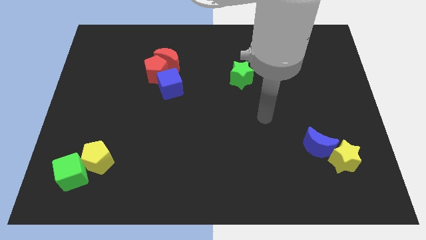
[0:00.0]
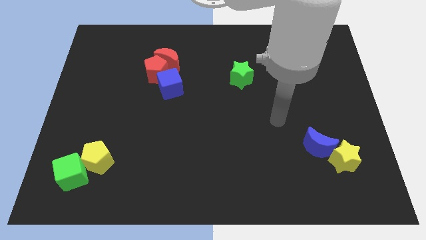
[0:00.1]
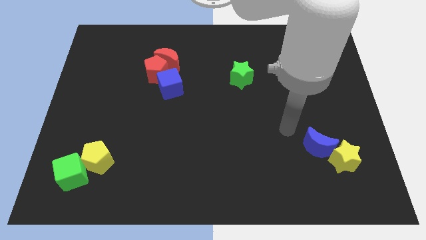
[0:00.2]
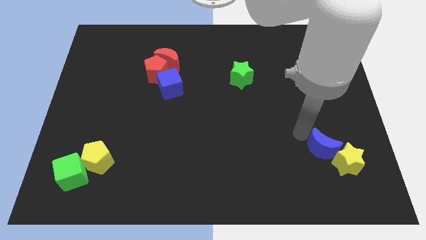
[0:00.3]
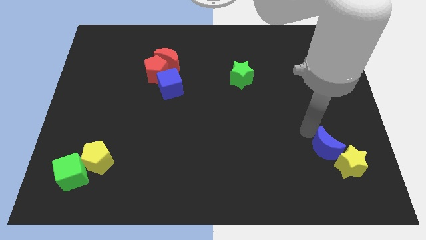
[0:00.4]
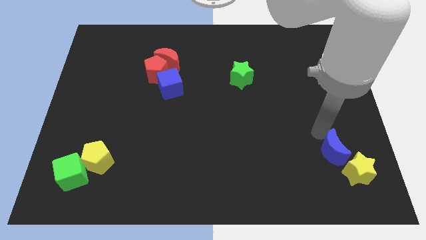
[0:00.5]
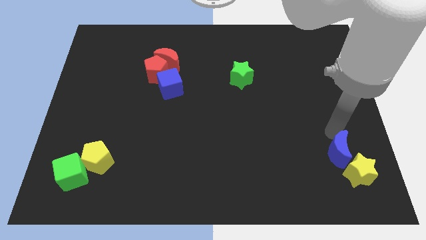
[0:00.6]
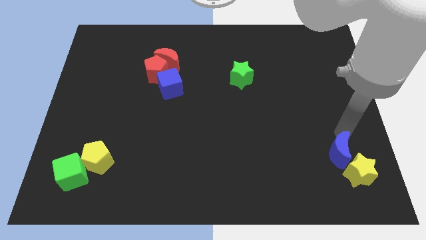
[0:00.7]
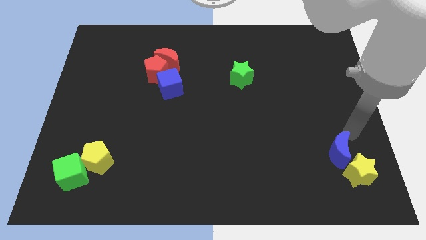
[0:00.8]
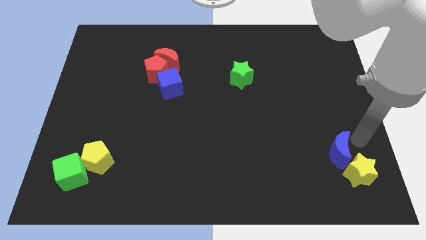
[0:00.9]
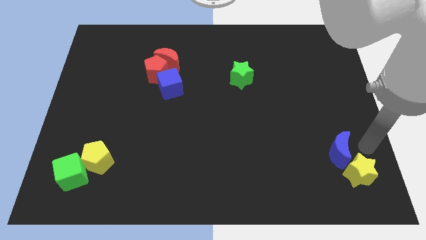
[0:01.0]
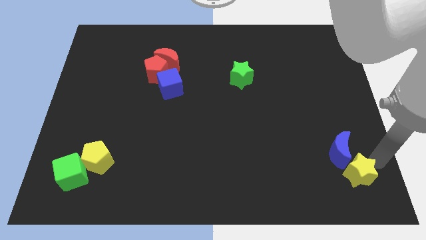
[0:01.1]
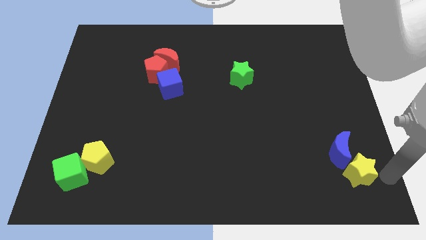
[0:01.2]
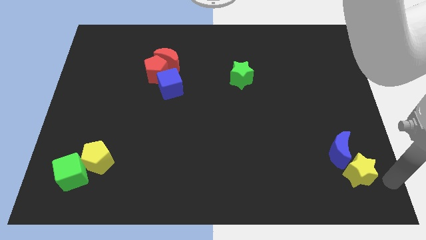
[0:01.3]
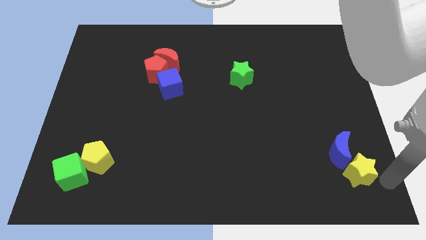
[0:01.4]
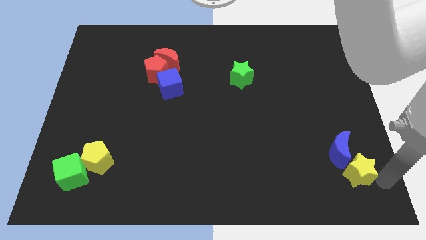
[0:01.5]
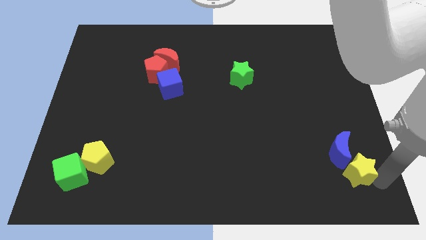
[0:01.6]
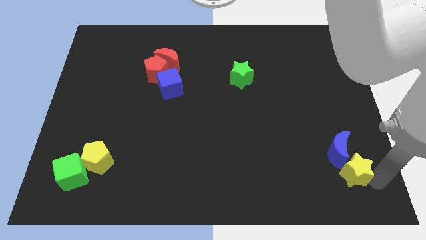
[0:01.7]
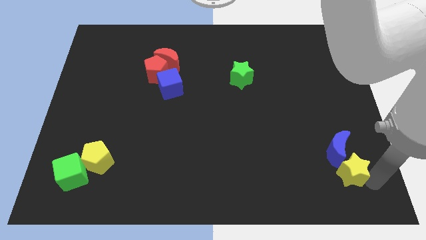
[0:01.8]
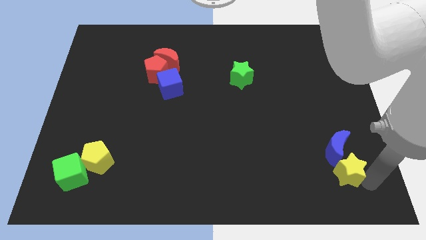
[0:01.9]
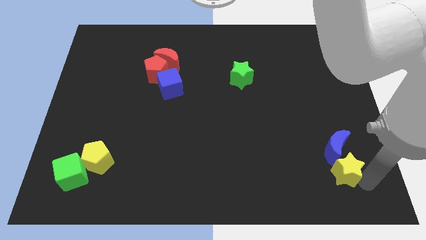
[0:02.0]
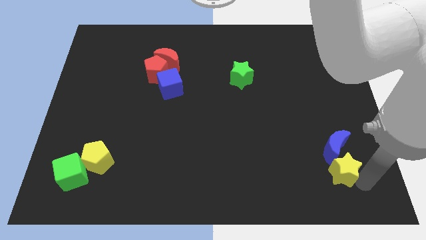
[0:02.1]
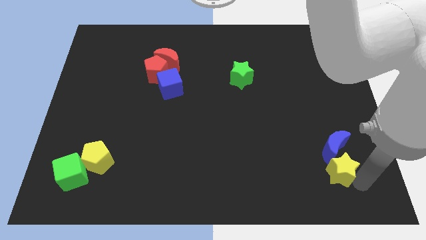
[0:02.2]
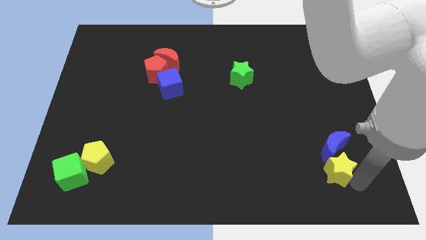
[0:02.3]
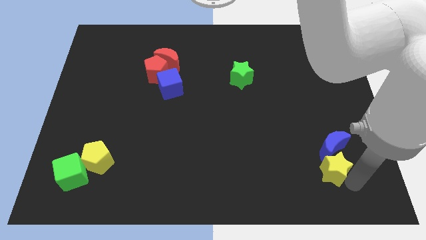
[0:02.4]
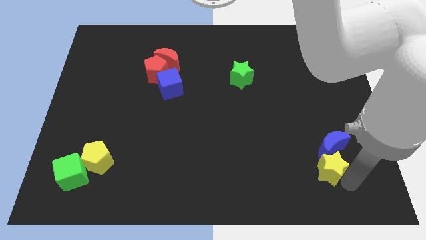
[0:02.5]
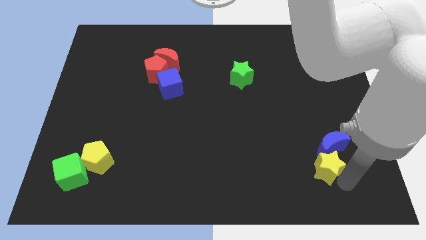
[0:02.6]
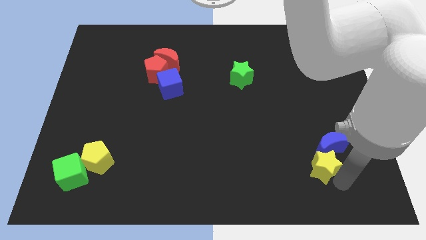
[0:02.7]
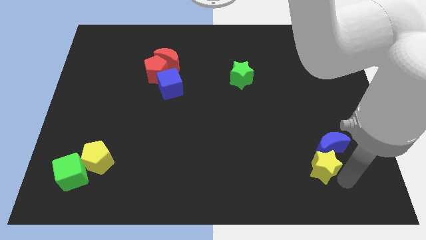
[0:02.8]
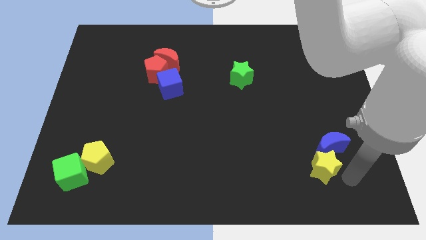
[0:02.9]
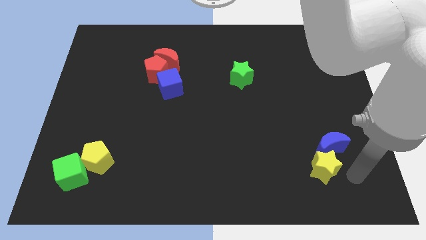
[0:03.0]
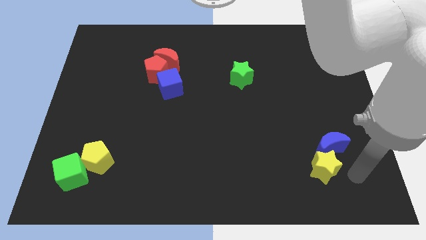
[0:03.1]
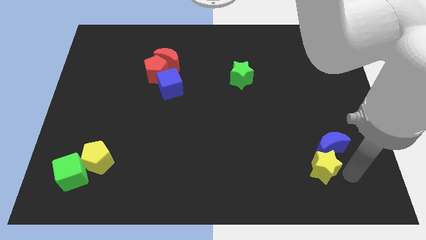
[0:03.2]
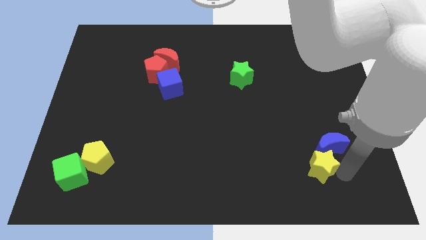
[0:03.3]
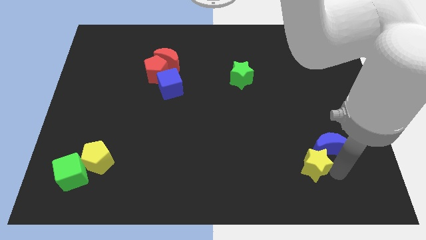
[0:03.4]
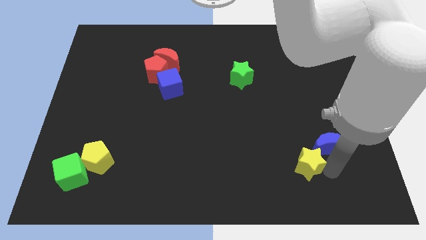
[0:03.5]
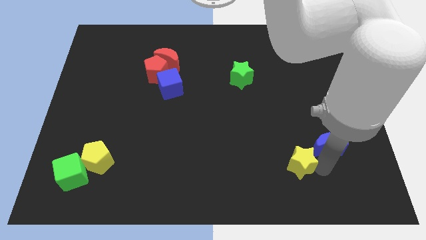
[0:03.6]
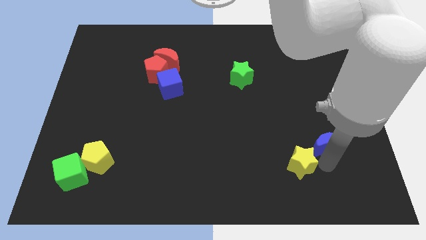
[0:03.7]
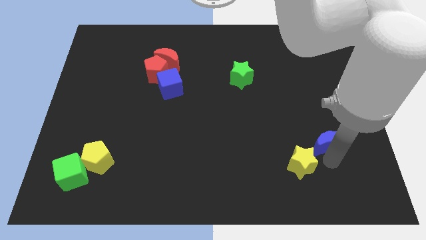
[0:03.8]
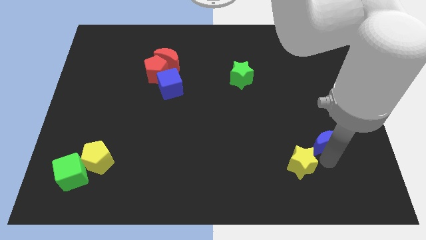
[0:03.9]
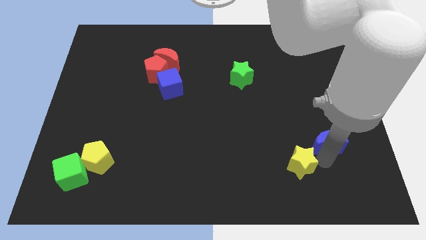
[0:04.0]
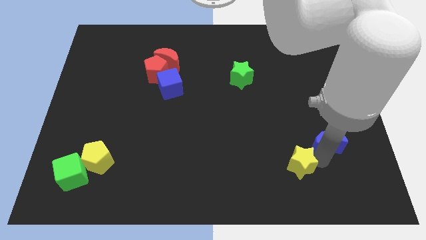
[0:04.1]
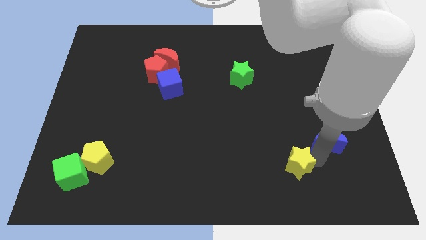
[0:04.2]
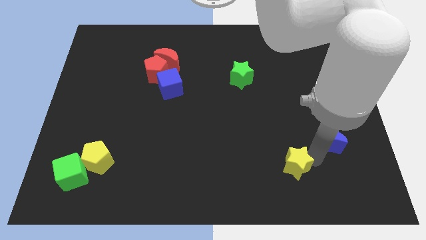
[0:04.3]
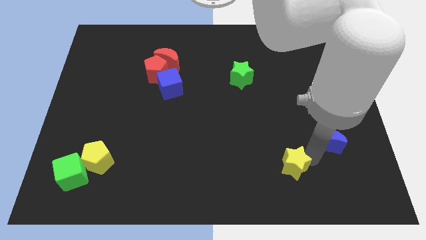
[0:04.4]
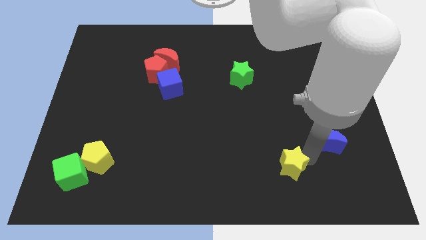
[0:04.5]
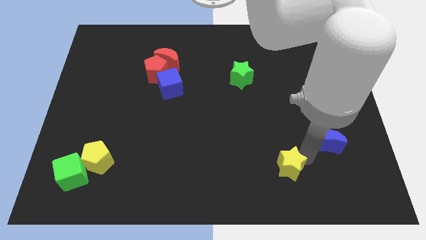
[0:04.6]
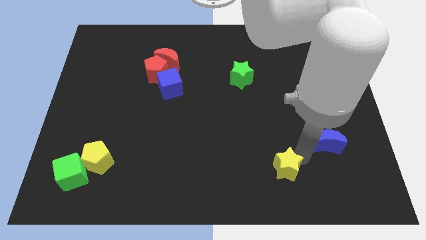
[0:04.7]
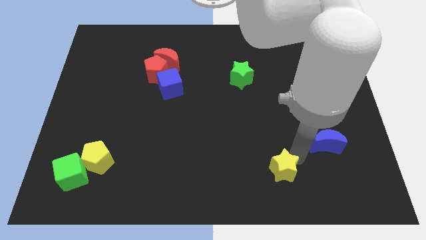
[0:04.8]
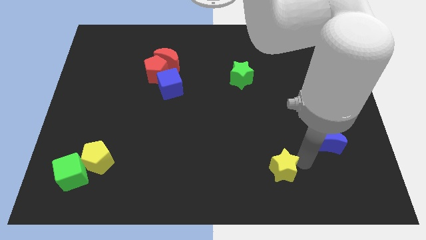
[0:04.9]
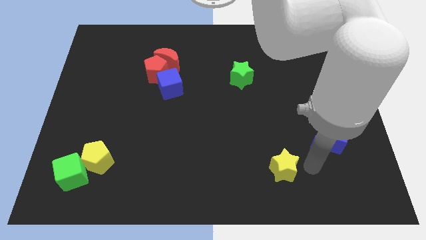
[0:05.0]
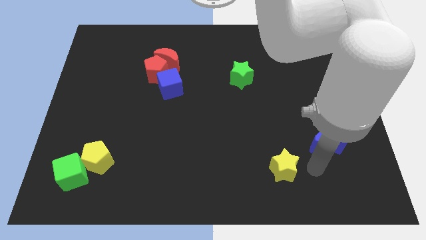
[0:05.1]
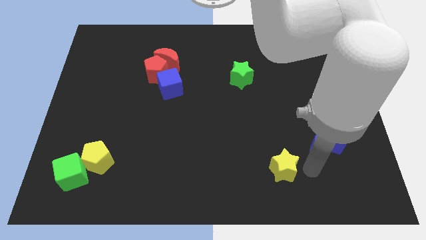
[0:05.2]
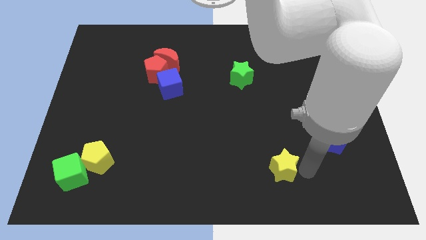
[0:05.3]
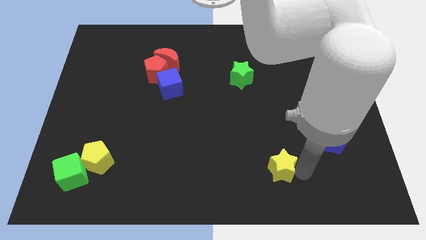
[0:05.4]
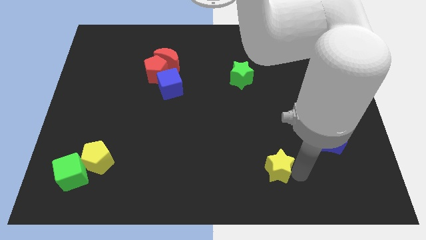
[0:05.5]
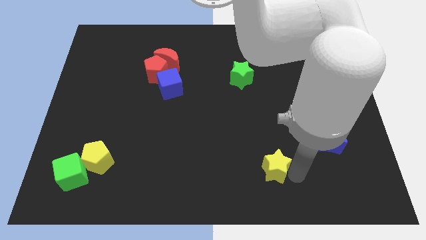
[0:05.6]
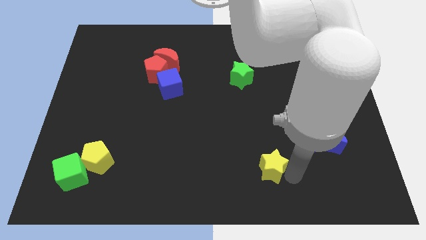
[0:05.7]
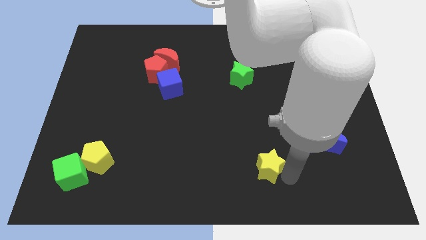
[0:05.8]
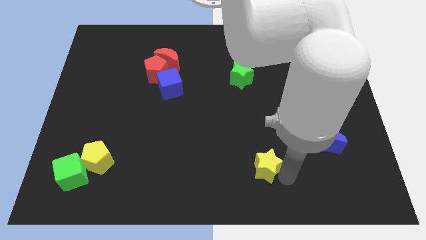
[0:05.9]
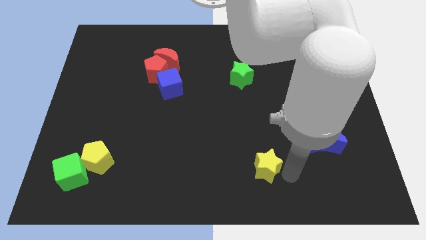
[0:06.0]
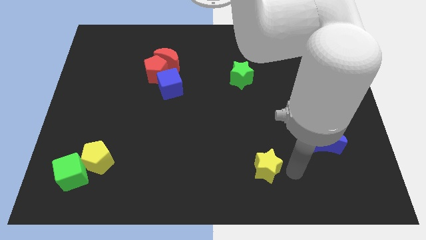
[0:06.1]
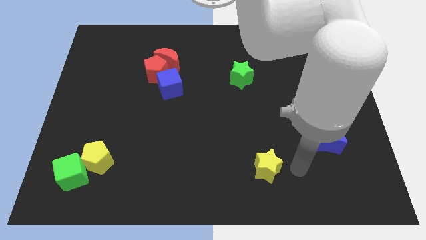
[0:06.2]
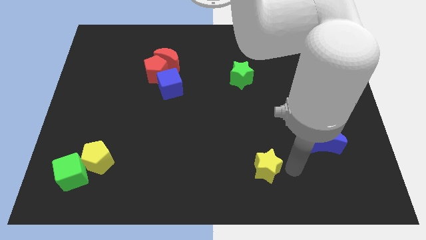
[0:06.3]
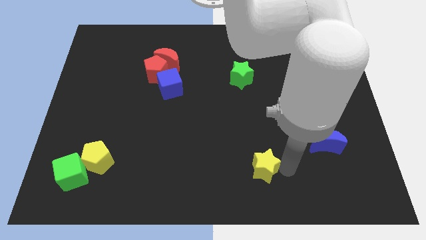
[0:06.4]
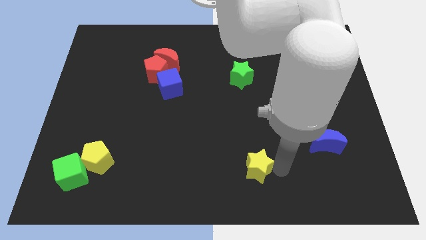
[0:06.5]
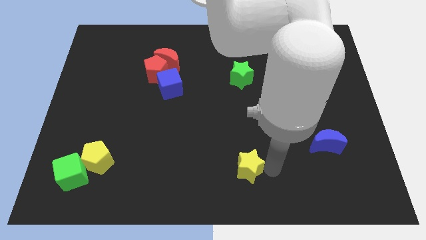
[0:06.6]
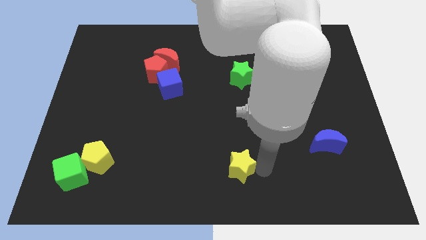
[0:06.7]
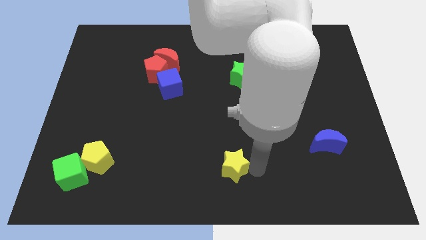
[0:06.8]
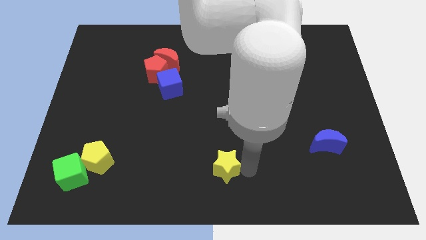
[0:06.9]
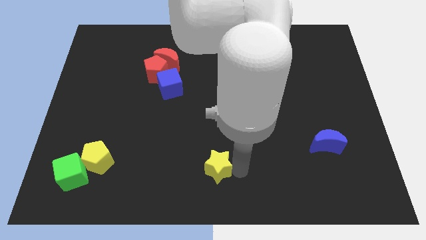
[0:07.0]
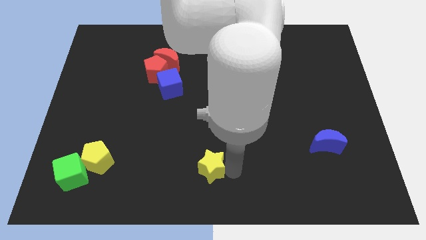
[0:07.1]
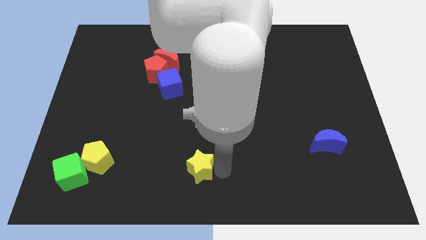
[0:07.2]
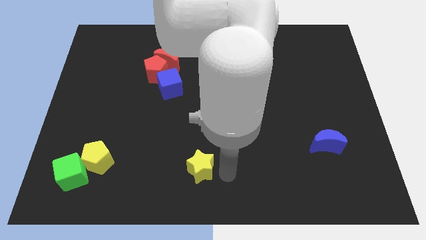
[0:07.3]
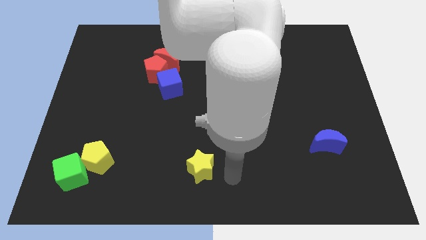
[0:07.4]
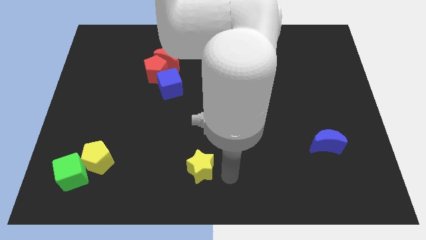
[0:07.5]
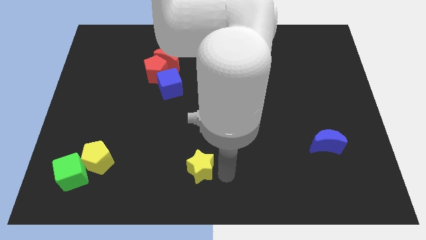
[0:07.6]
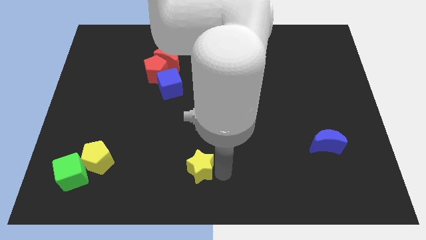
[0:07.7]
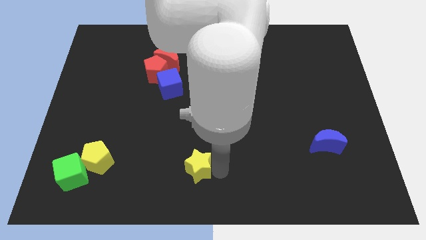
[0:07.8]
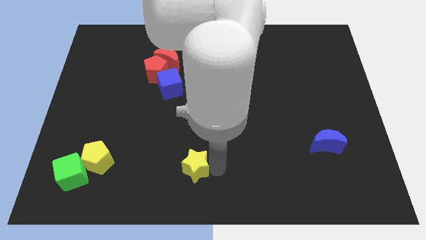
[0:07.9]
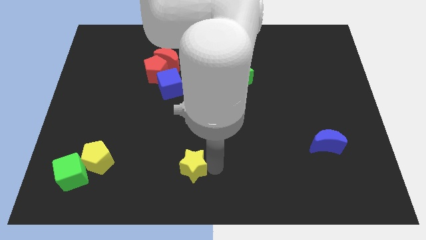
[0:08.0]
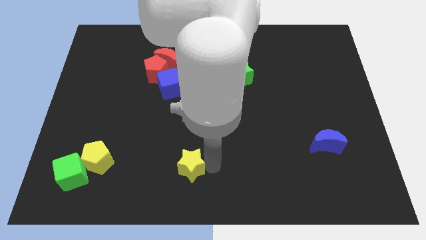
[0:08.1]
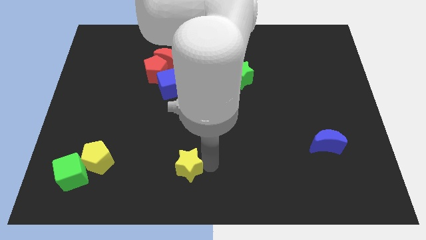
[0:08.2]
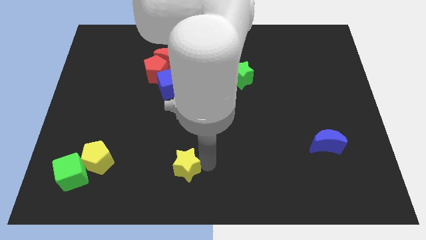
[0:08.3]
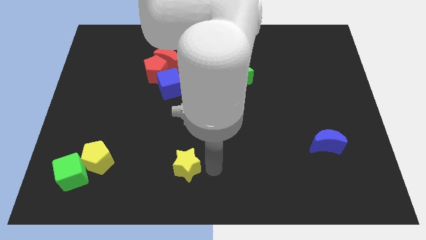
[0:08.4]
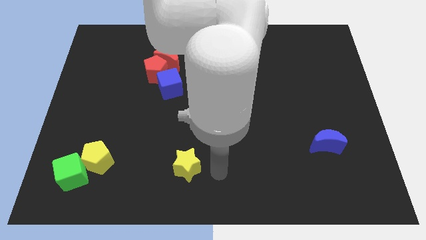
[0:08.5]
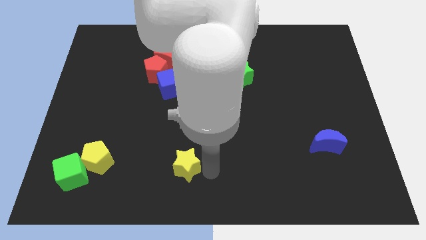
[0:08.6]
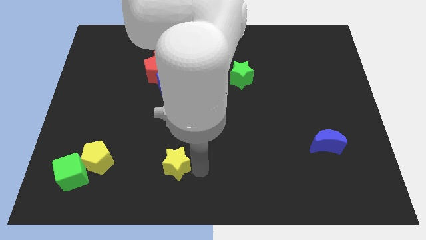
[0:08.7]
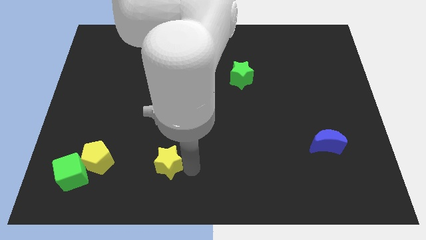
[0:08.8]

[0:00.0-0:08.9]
push the yellow star to the right side of the yellow pentagon
